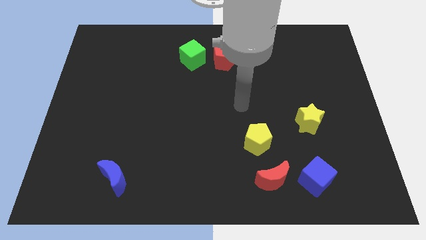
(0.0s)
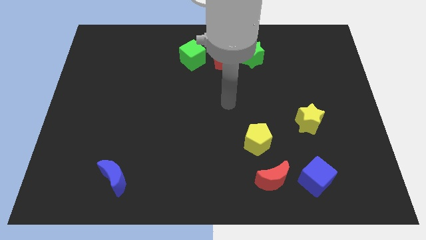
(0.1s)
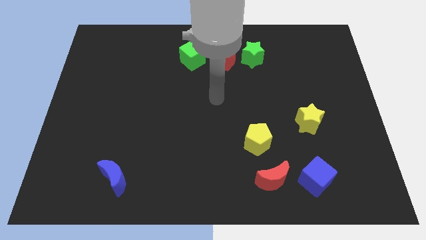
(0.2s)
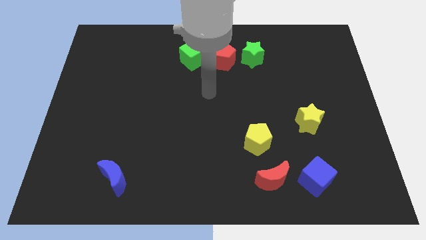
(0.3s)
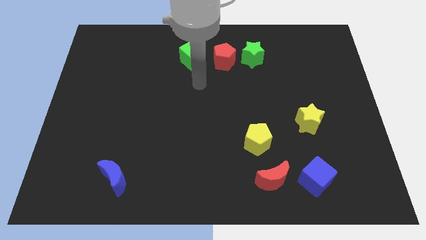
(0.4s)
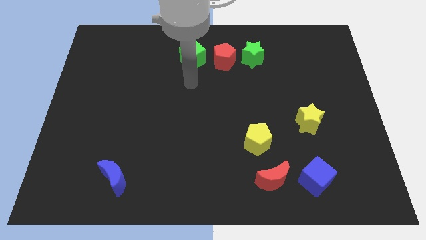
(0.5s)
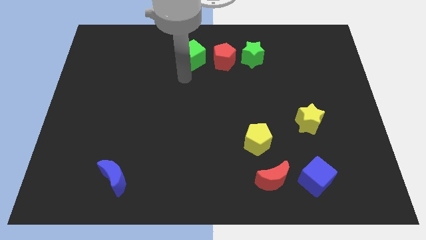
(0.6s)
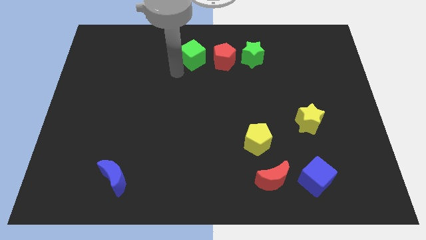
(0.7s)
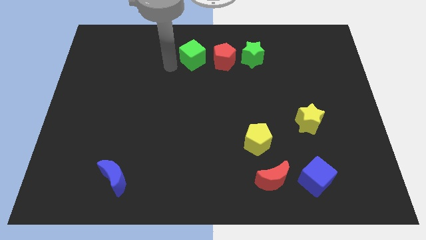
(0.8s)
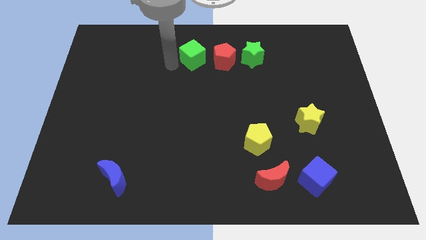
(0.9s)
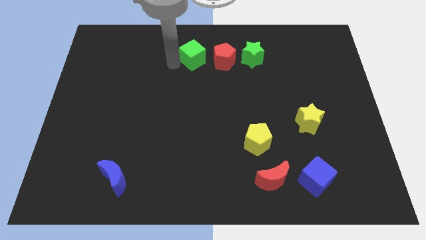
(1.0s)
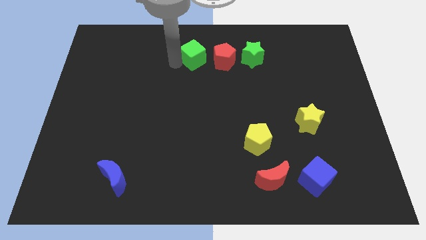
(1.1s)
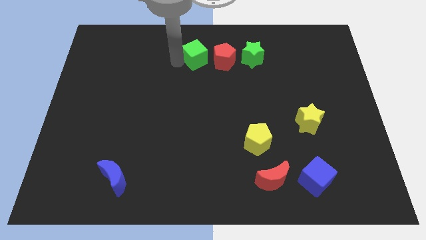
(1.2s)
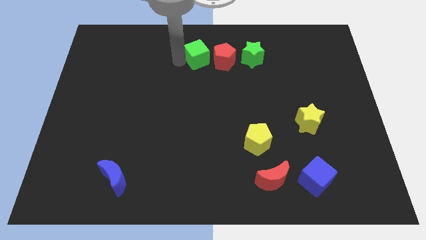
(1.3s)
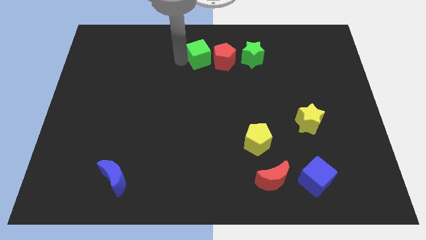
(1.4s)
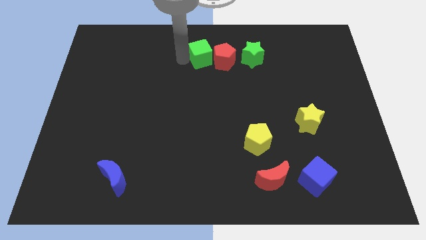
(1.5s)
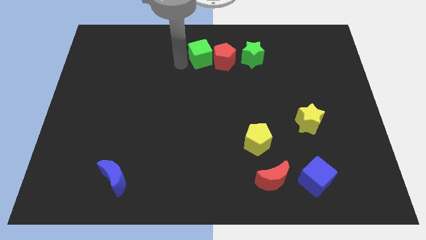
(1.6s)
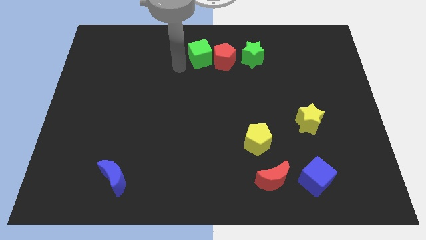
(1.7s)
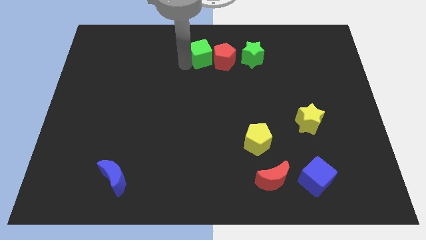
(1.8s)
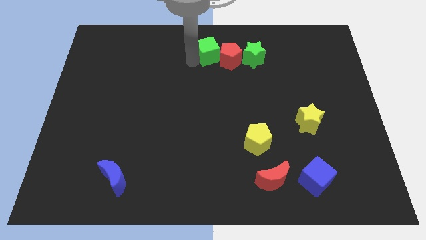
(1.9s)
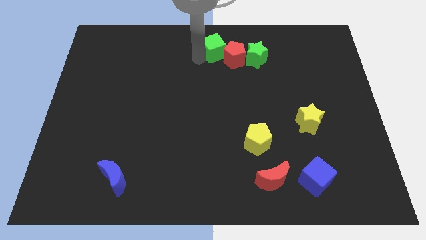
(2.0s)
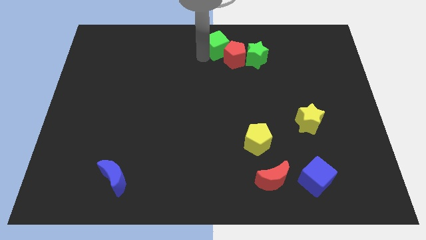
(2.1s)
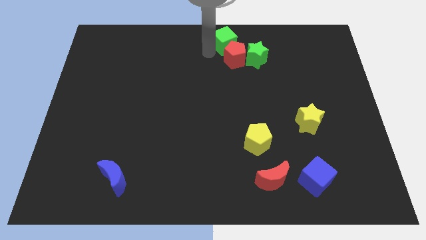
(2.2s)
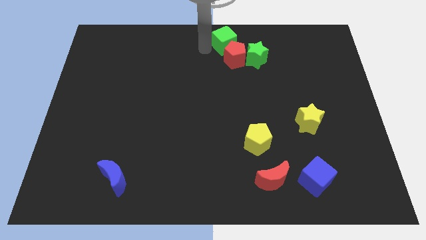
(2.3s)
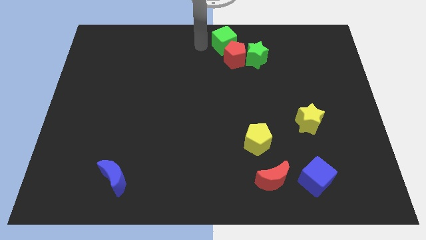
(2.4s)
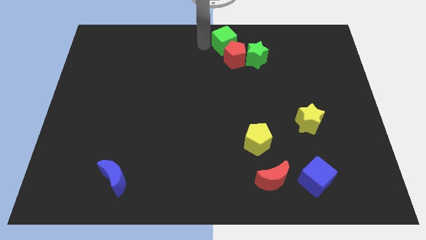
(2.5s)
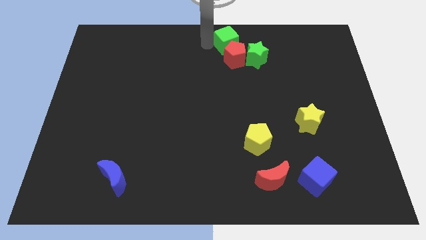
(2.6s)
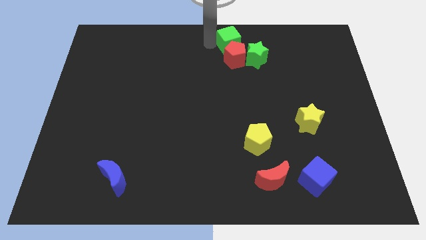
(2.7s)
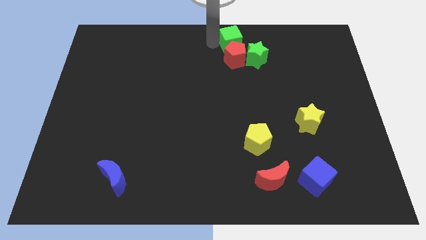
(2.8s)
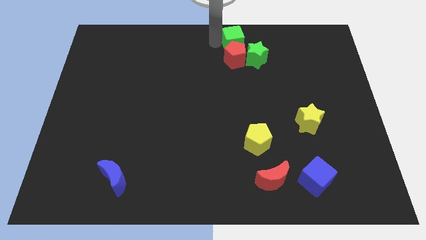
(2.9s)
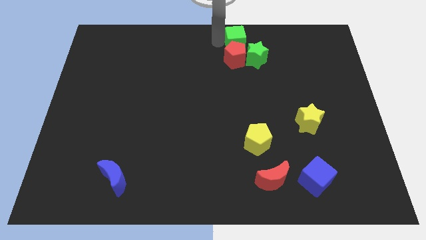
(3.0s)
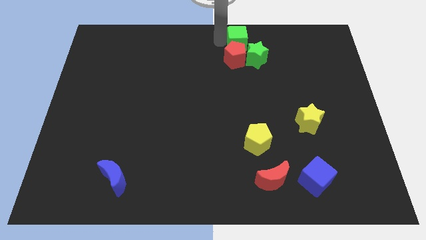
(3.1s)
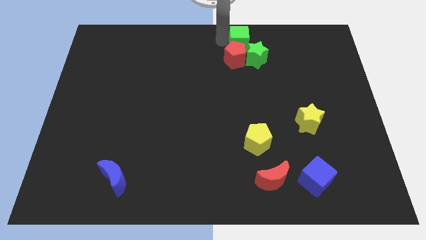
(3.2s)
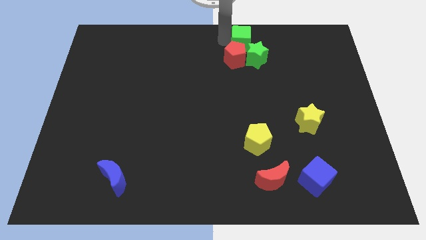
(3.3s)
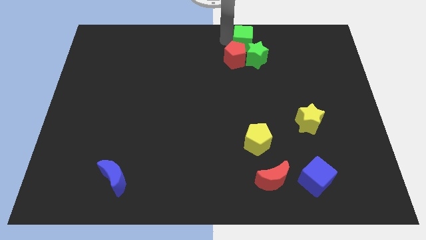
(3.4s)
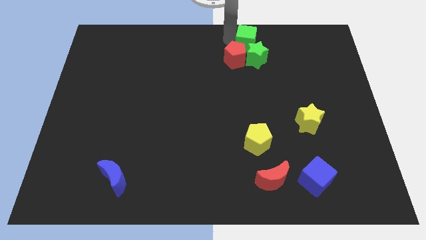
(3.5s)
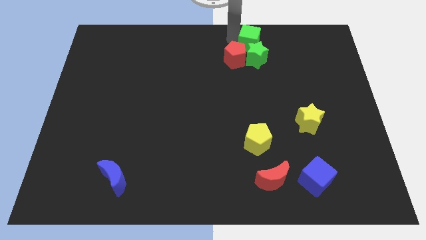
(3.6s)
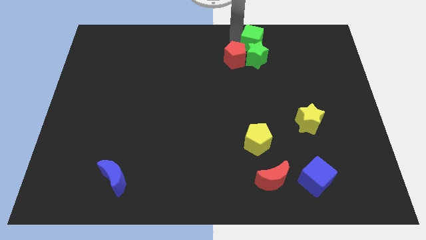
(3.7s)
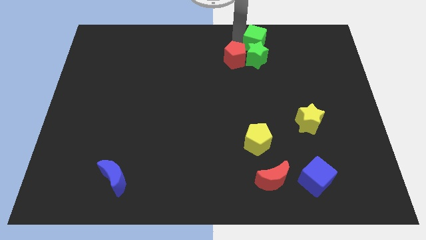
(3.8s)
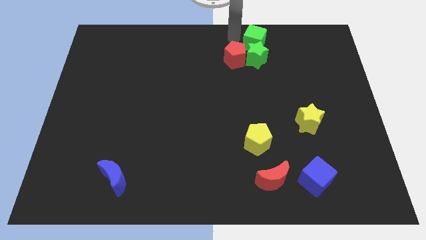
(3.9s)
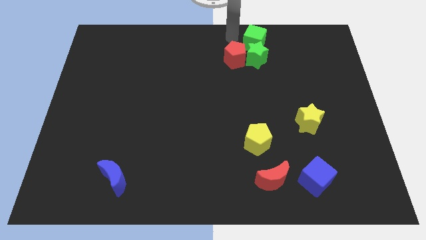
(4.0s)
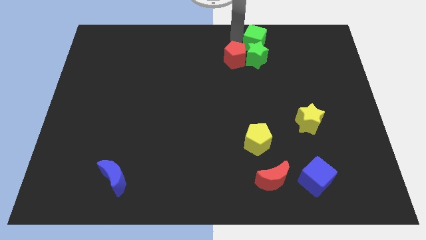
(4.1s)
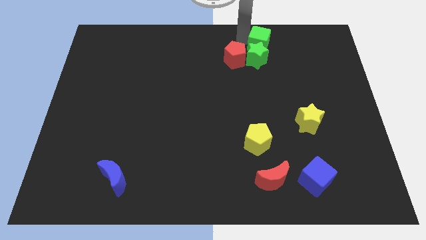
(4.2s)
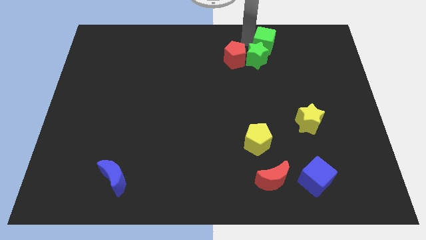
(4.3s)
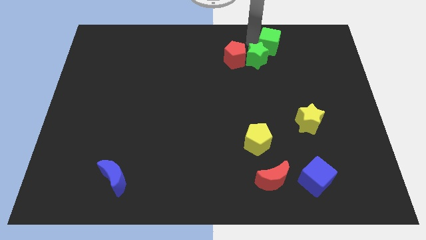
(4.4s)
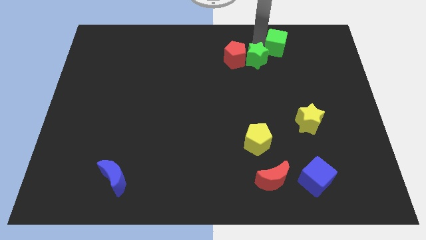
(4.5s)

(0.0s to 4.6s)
move the green cube right

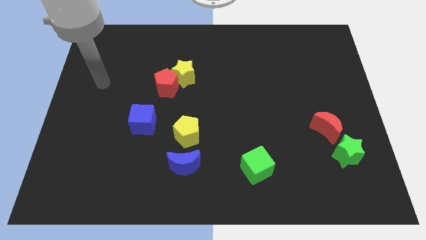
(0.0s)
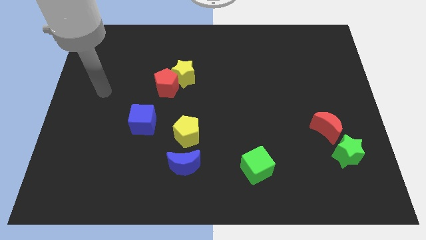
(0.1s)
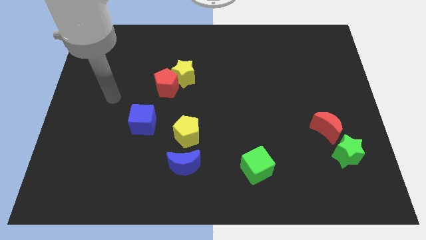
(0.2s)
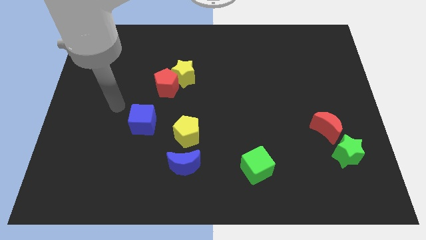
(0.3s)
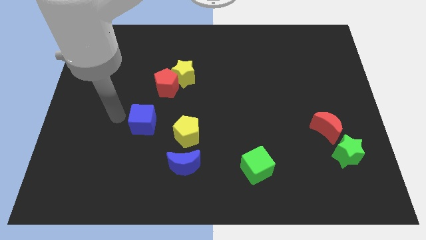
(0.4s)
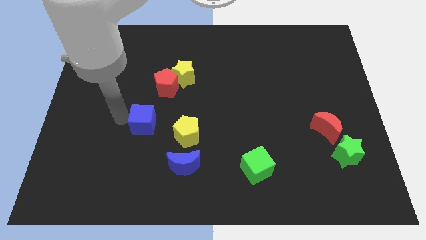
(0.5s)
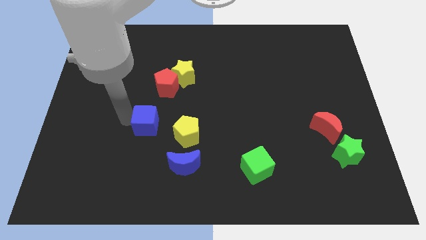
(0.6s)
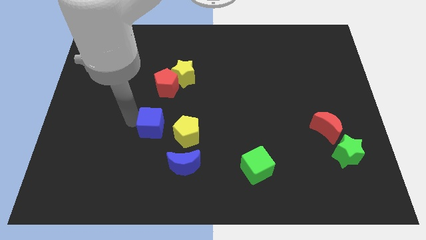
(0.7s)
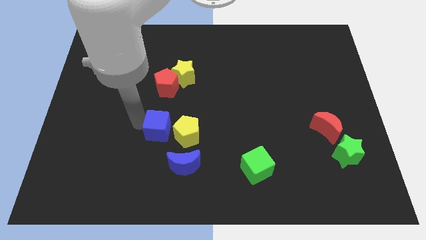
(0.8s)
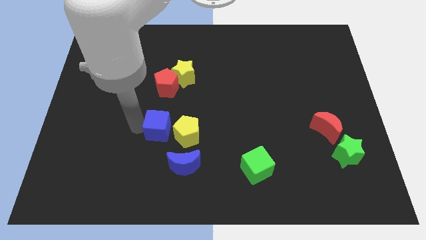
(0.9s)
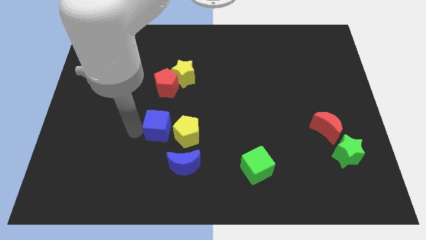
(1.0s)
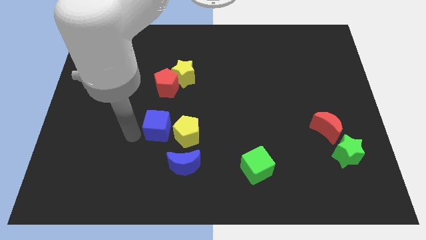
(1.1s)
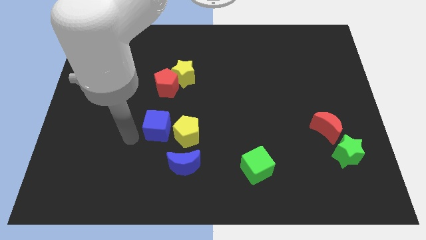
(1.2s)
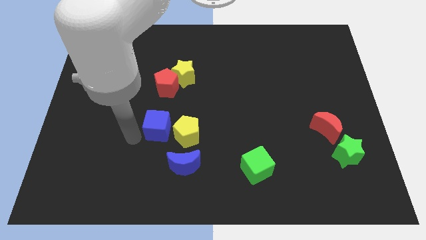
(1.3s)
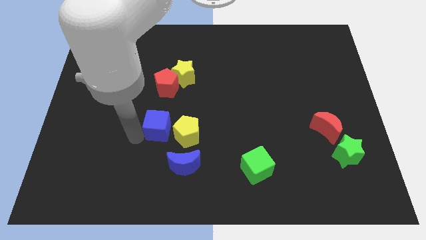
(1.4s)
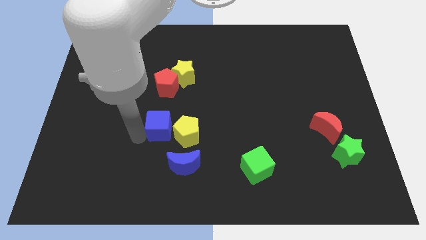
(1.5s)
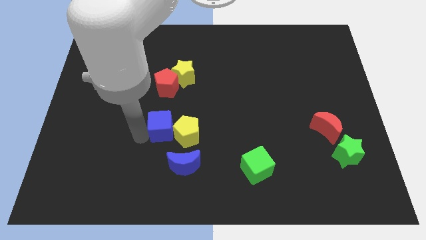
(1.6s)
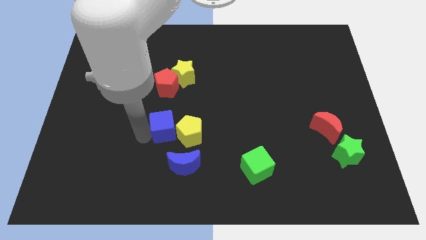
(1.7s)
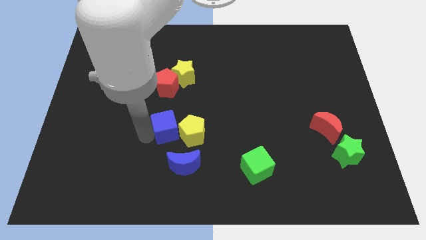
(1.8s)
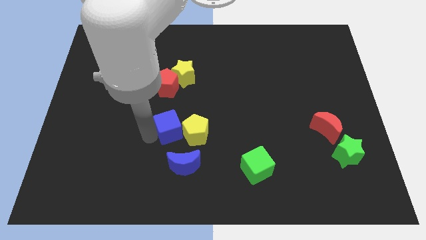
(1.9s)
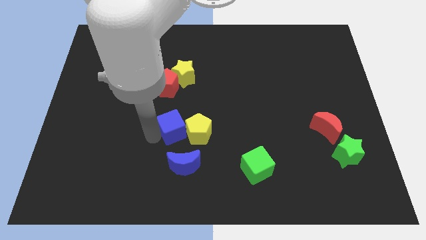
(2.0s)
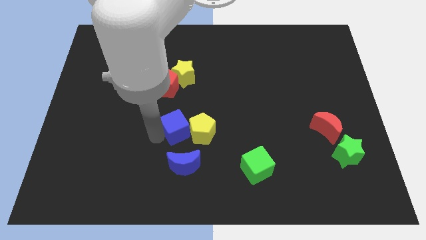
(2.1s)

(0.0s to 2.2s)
move the blue cube to the right a bit

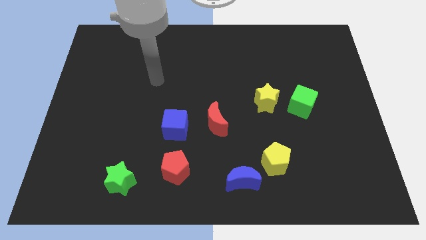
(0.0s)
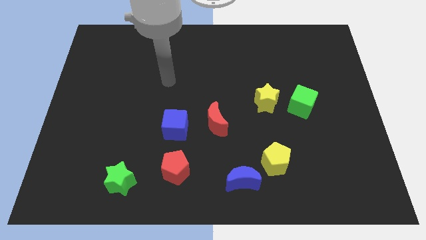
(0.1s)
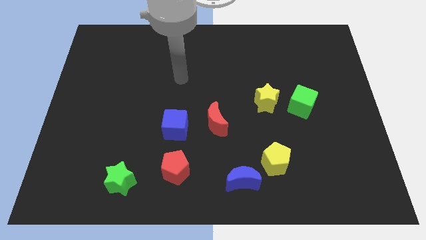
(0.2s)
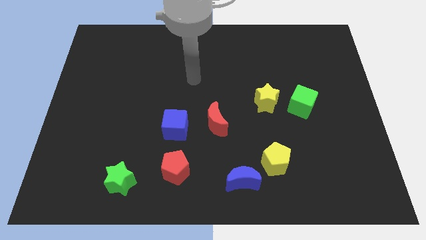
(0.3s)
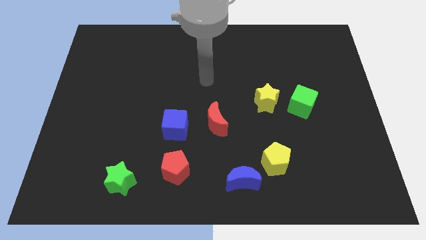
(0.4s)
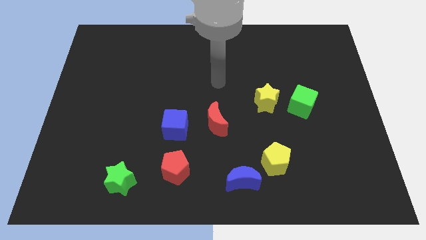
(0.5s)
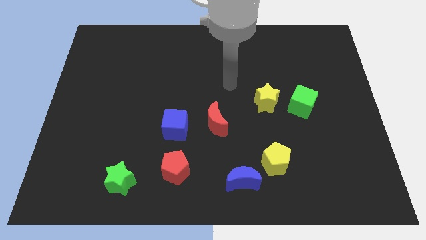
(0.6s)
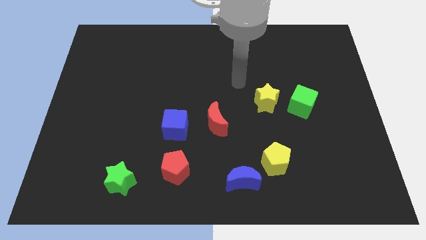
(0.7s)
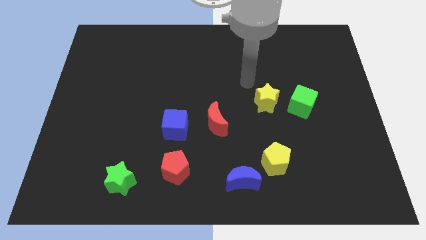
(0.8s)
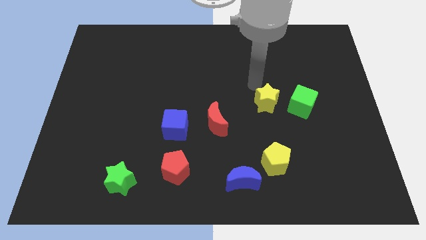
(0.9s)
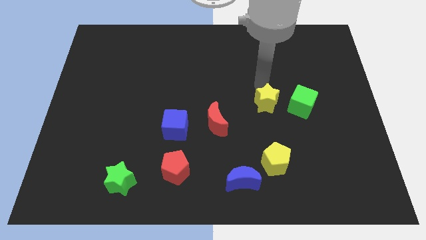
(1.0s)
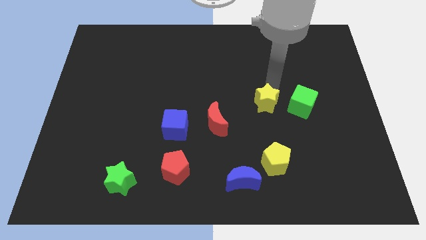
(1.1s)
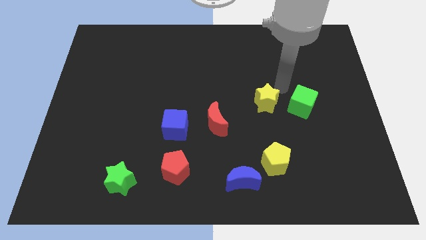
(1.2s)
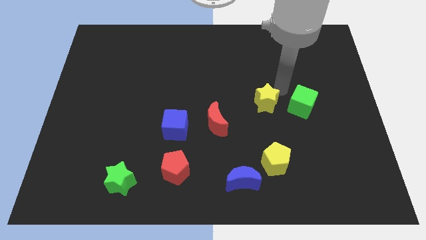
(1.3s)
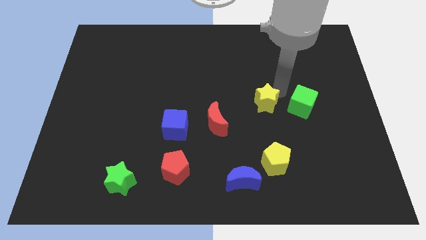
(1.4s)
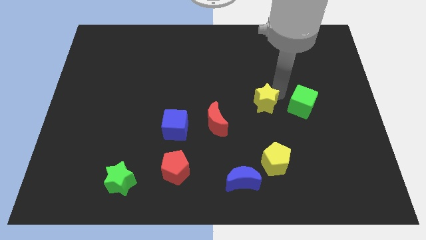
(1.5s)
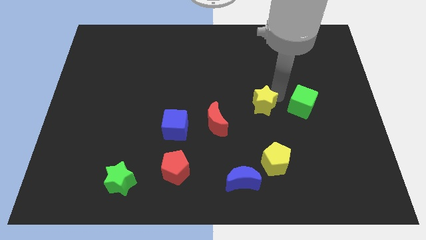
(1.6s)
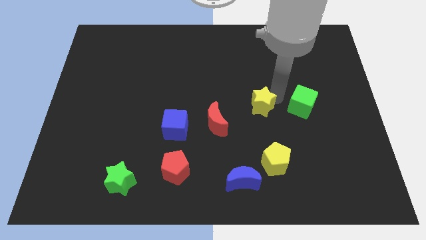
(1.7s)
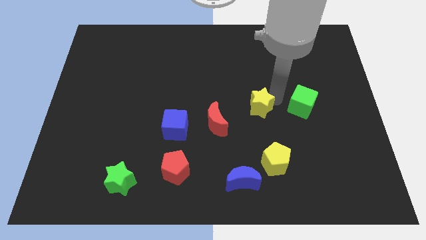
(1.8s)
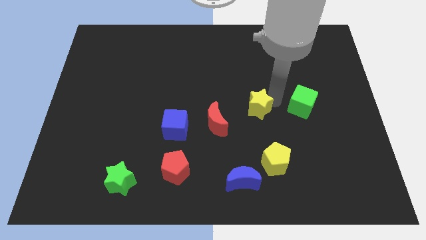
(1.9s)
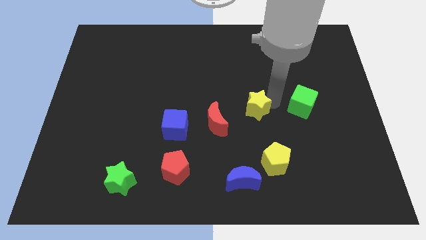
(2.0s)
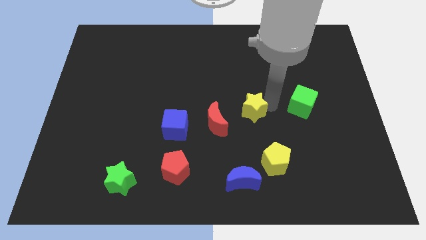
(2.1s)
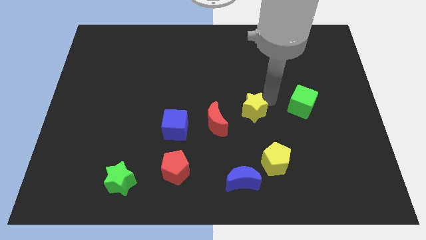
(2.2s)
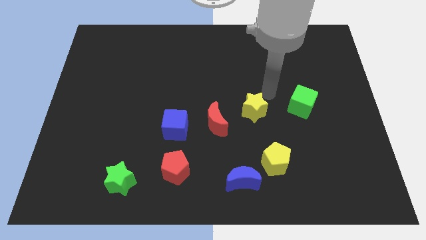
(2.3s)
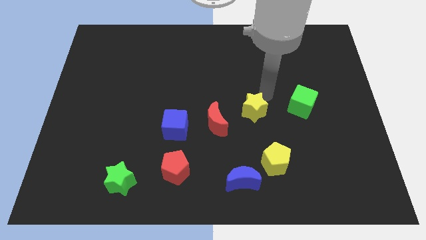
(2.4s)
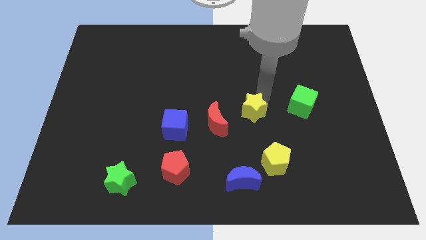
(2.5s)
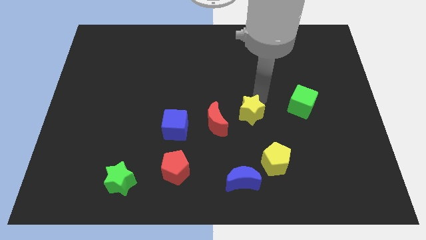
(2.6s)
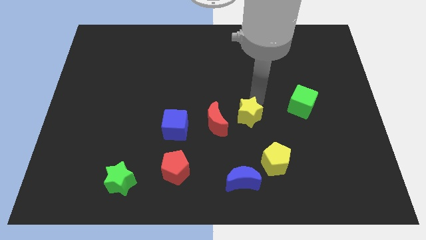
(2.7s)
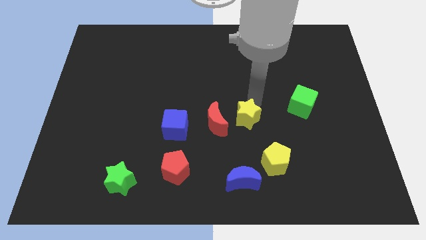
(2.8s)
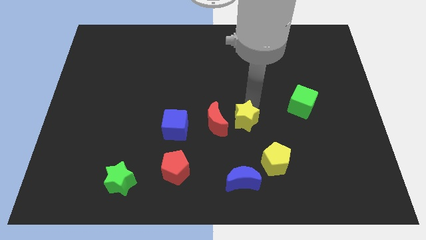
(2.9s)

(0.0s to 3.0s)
slightly slide the yellow star diagonally downwards and to the left
